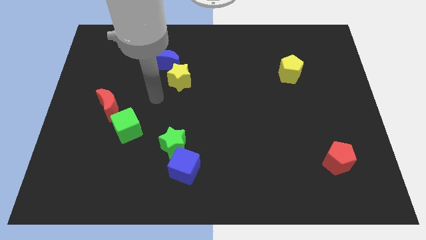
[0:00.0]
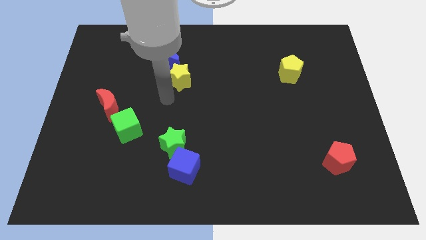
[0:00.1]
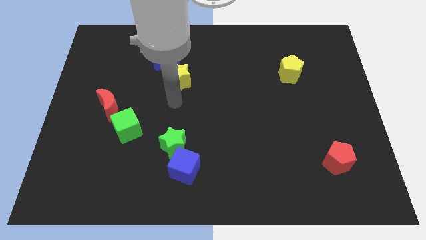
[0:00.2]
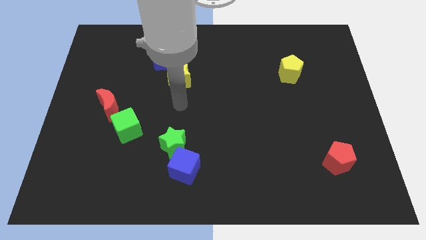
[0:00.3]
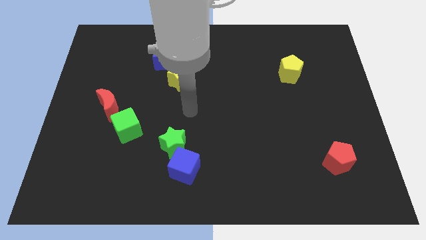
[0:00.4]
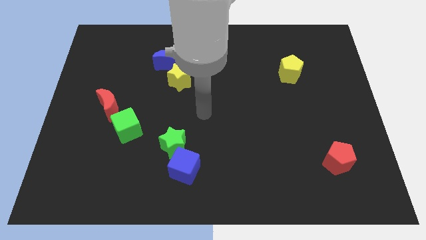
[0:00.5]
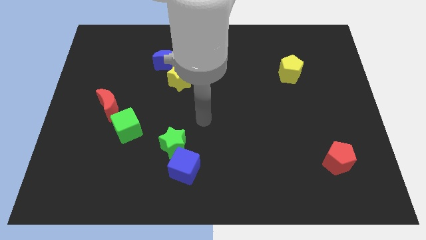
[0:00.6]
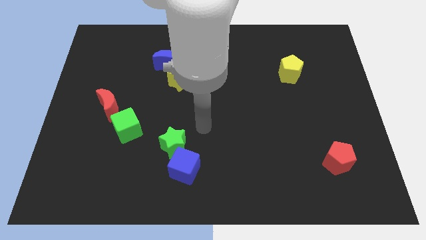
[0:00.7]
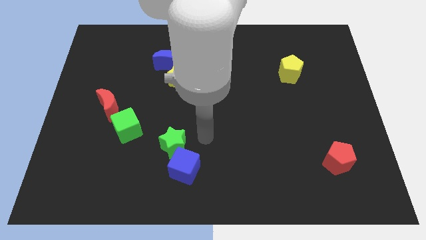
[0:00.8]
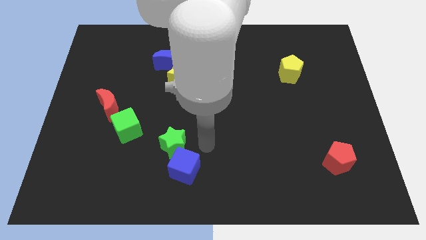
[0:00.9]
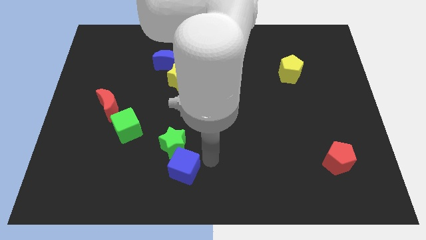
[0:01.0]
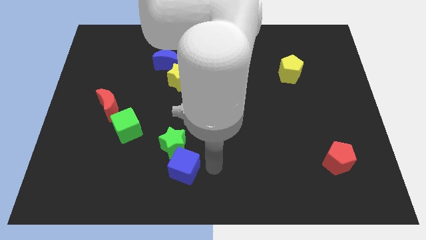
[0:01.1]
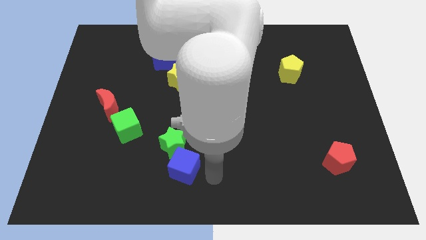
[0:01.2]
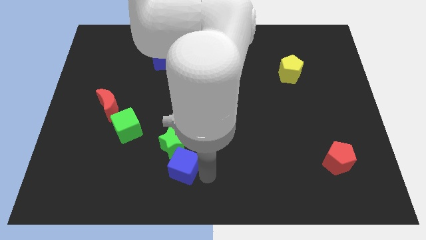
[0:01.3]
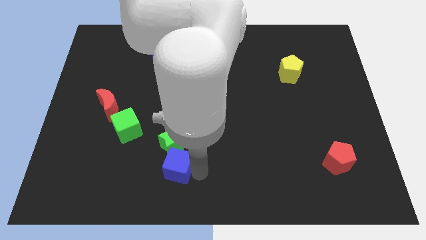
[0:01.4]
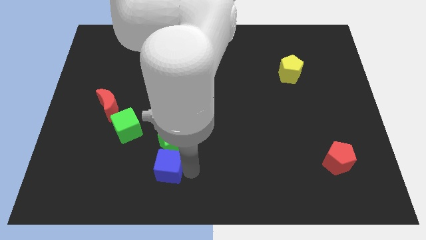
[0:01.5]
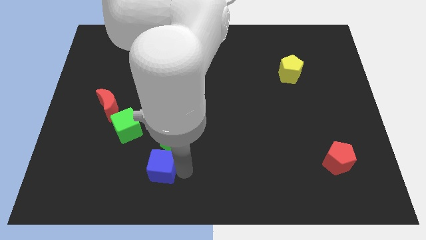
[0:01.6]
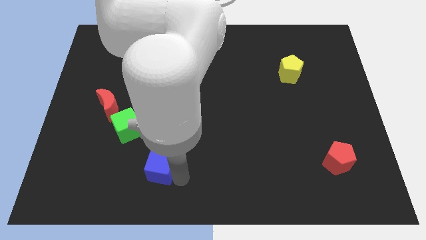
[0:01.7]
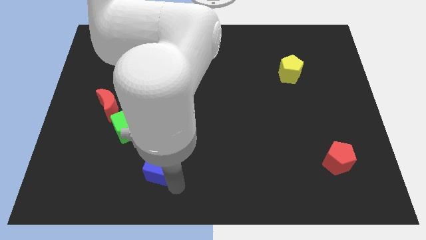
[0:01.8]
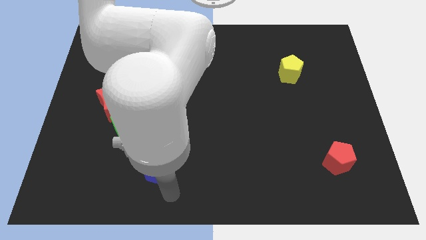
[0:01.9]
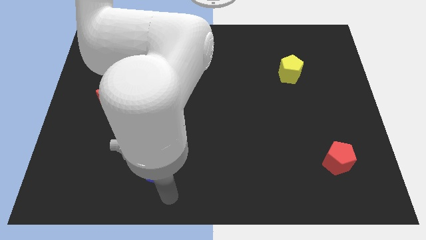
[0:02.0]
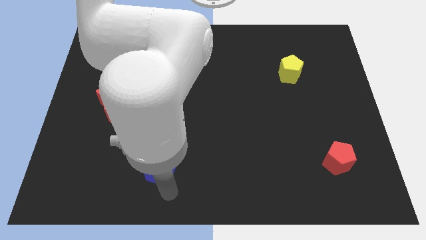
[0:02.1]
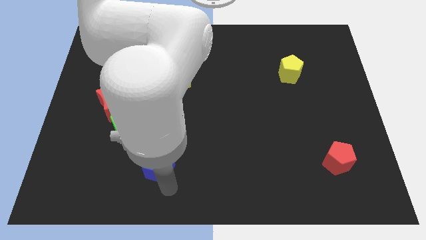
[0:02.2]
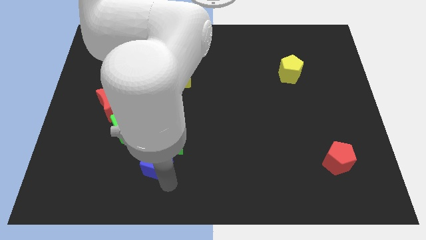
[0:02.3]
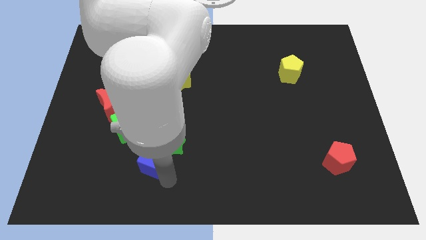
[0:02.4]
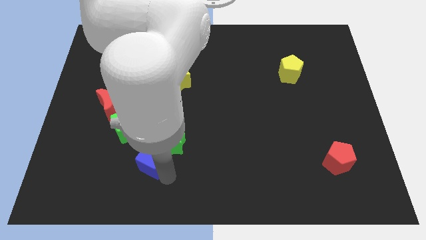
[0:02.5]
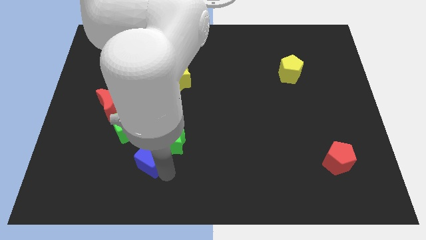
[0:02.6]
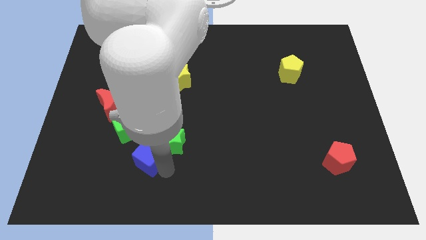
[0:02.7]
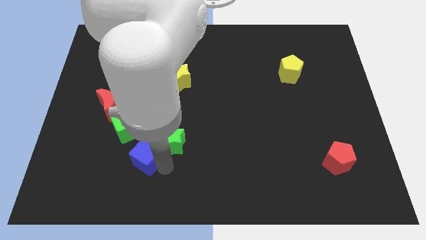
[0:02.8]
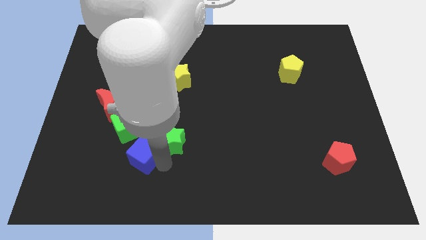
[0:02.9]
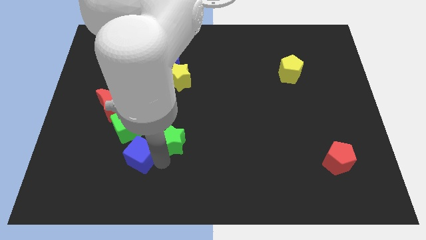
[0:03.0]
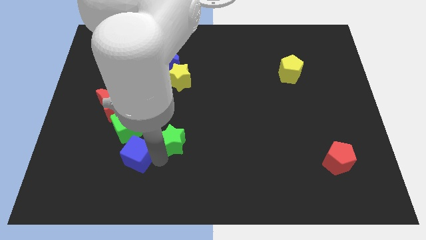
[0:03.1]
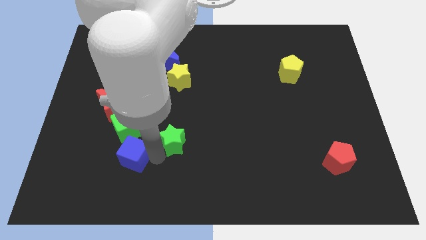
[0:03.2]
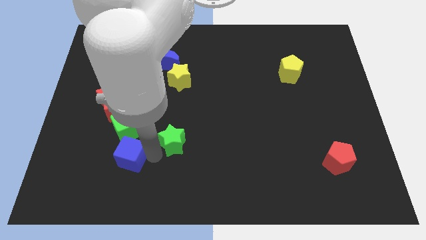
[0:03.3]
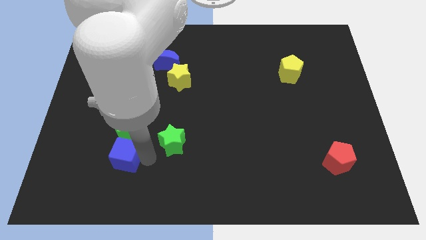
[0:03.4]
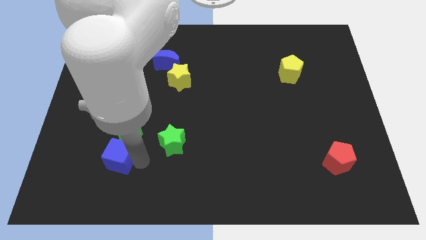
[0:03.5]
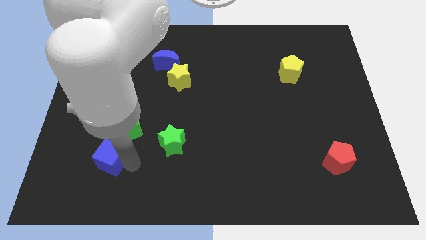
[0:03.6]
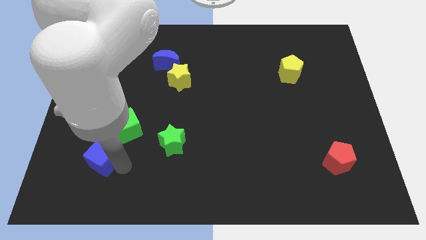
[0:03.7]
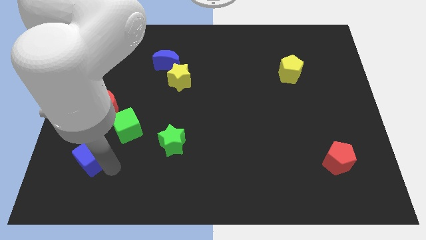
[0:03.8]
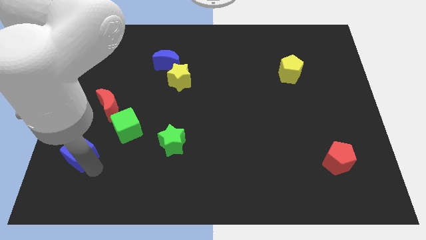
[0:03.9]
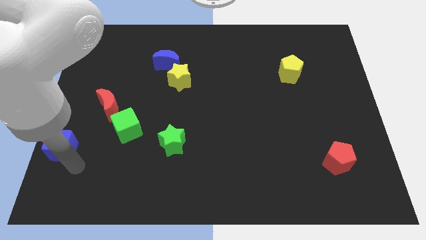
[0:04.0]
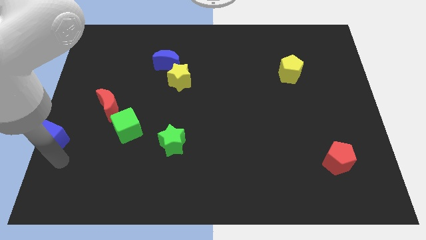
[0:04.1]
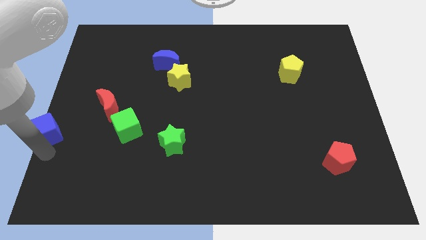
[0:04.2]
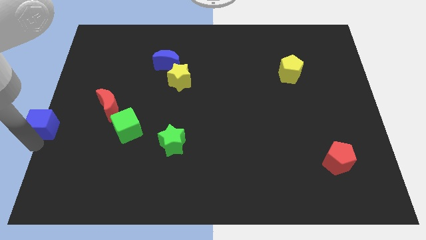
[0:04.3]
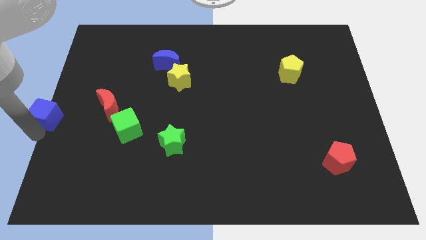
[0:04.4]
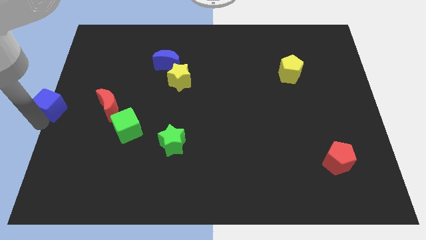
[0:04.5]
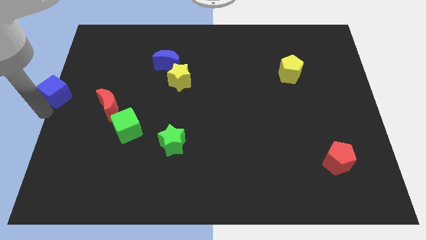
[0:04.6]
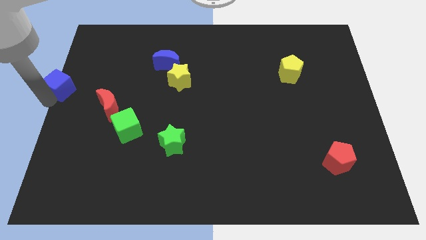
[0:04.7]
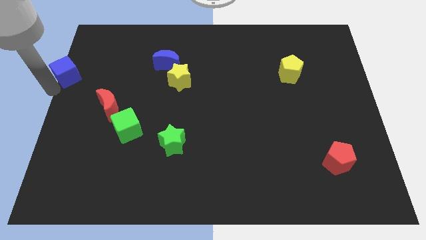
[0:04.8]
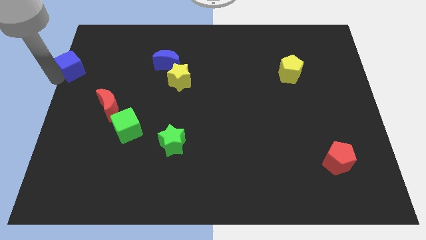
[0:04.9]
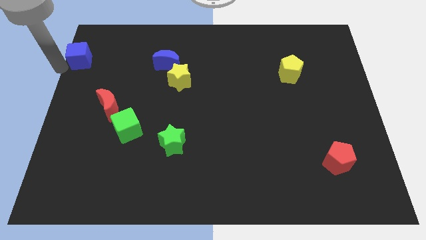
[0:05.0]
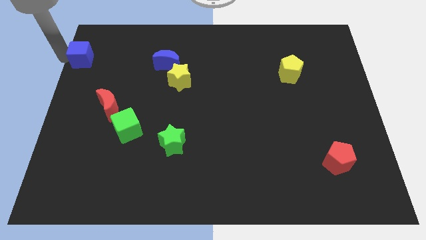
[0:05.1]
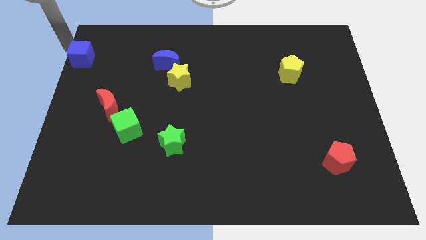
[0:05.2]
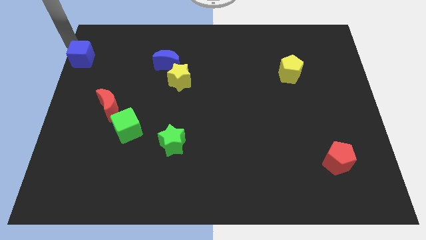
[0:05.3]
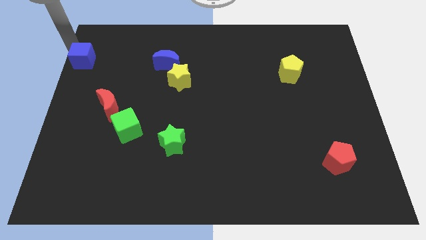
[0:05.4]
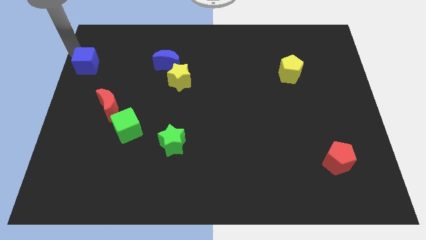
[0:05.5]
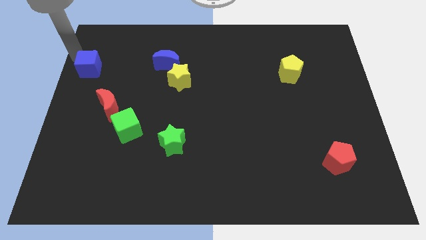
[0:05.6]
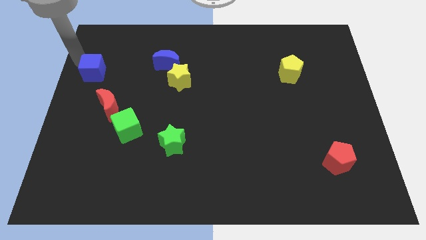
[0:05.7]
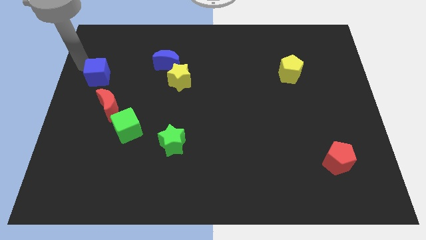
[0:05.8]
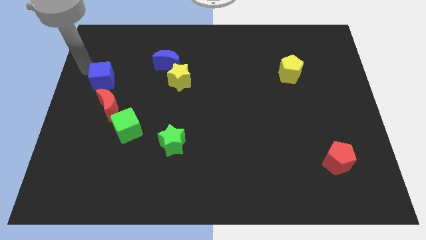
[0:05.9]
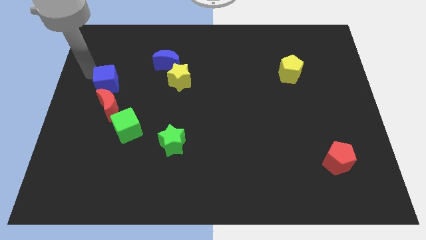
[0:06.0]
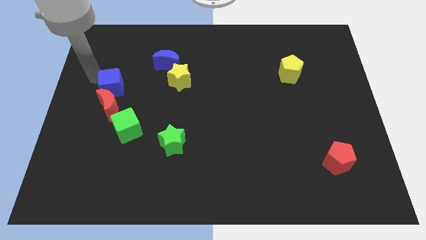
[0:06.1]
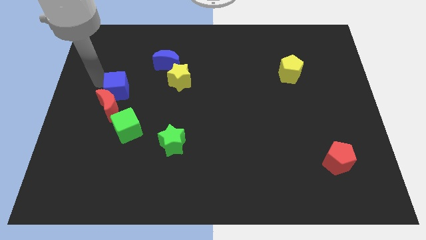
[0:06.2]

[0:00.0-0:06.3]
move the blue cube next to the red moon

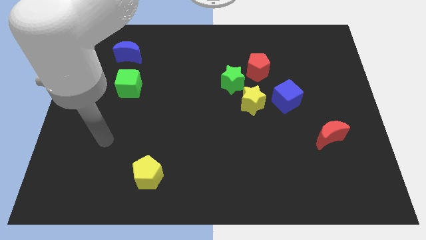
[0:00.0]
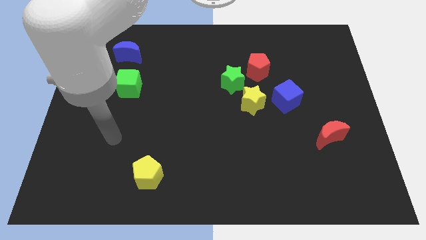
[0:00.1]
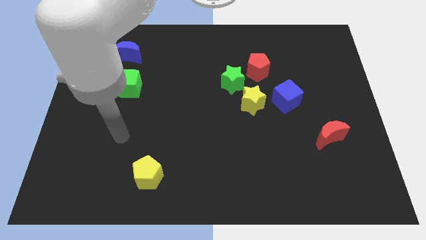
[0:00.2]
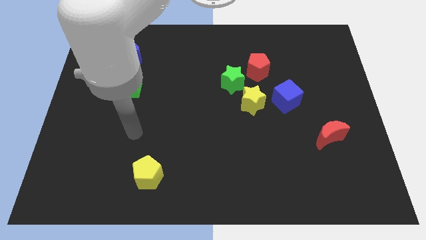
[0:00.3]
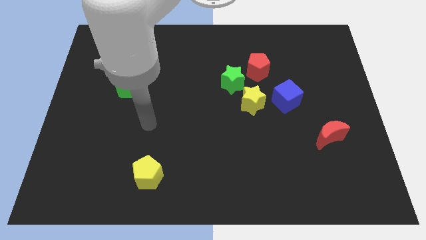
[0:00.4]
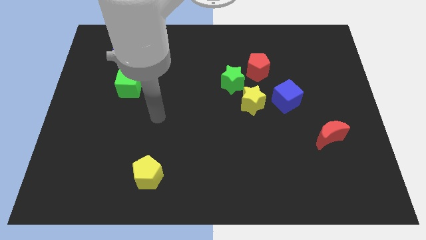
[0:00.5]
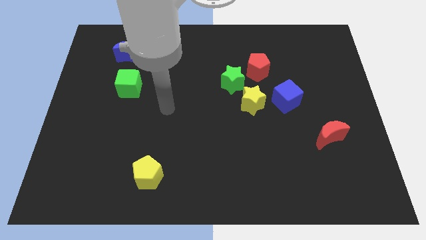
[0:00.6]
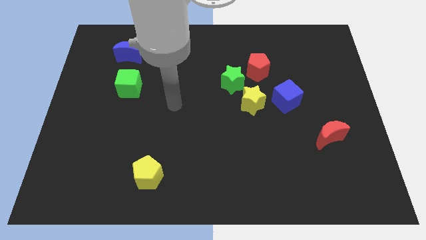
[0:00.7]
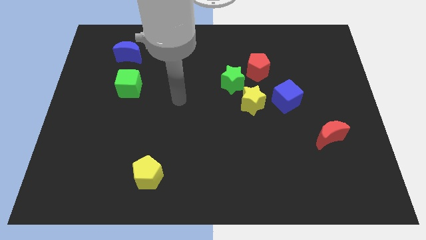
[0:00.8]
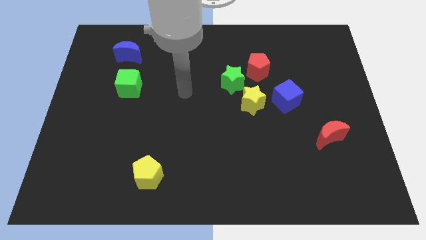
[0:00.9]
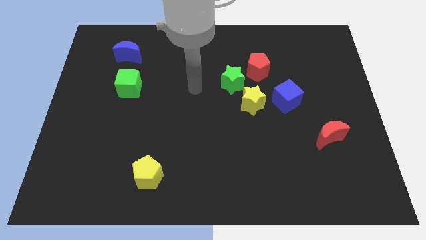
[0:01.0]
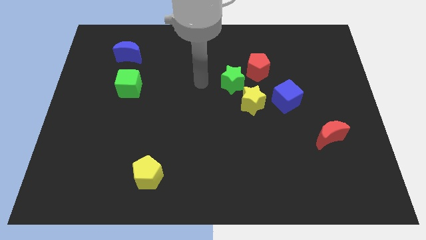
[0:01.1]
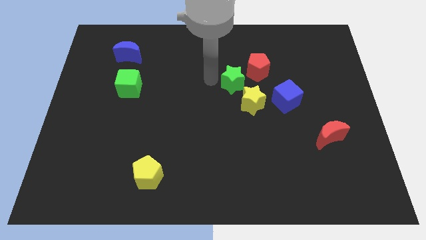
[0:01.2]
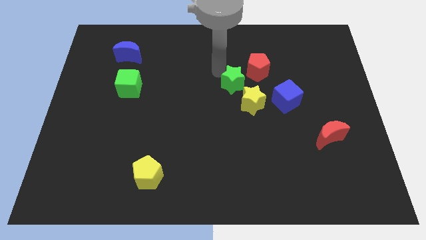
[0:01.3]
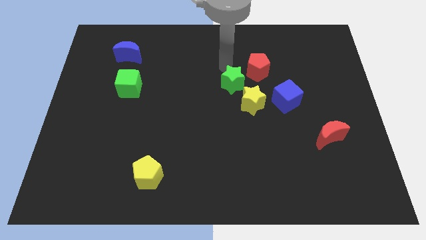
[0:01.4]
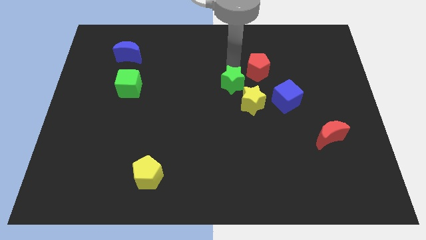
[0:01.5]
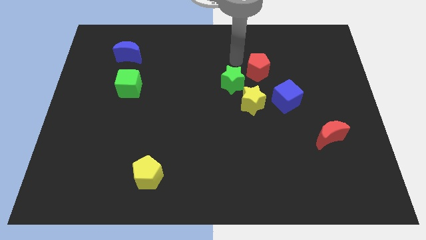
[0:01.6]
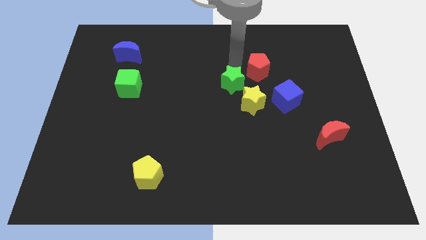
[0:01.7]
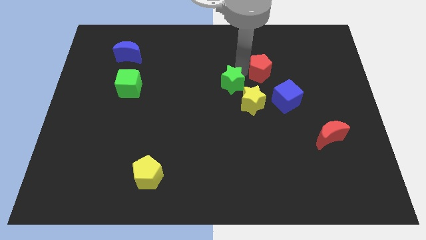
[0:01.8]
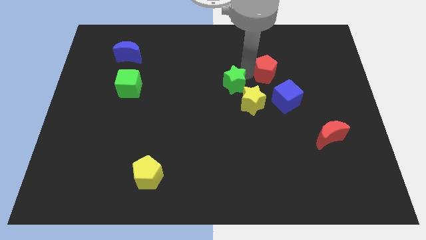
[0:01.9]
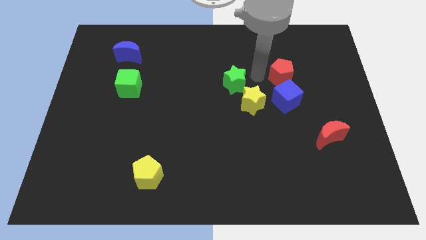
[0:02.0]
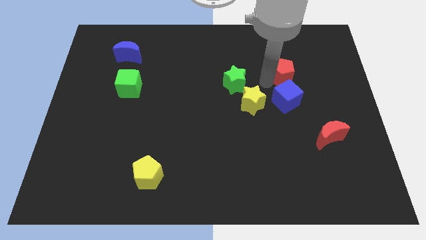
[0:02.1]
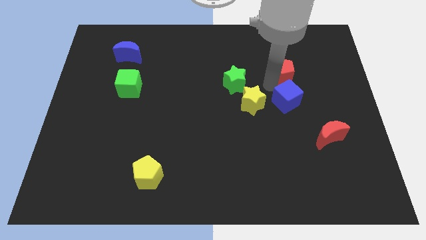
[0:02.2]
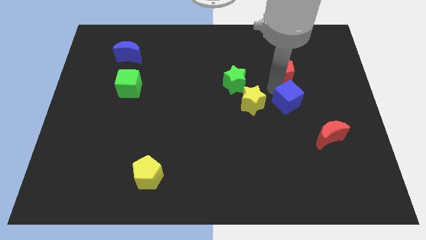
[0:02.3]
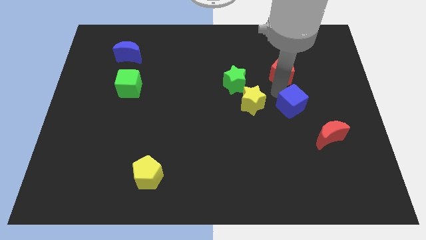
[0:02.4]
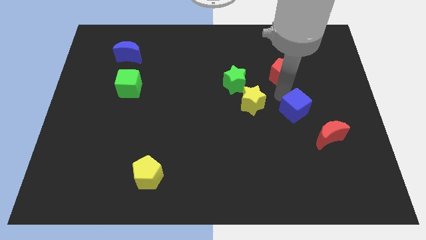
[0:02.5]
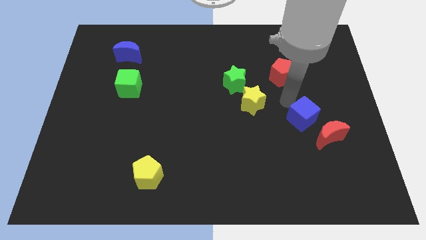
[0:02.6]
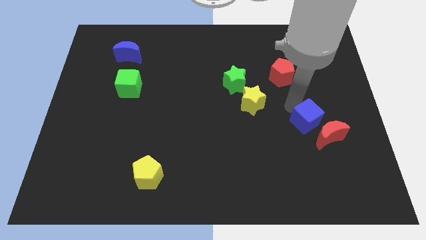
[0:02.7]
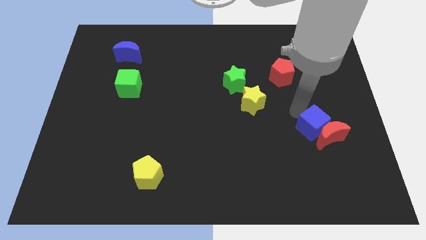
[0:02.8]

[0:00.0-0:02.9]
slide the blue cube towards the red moon
